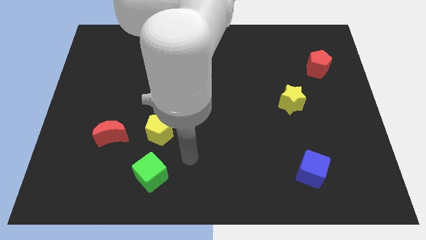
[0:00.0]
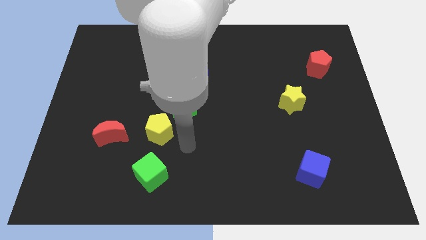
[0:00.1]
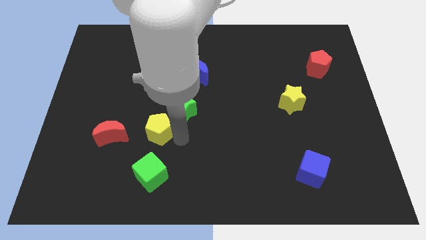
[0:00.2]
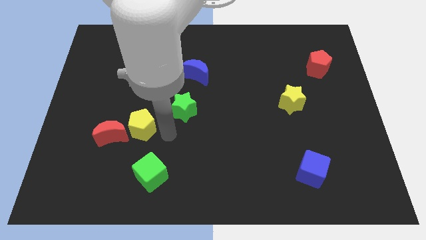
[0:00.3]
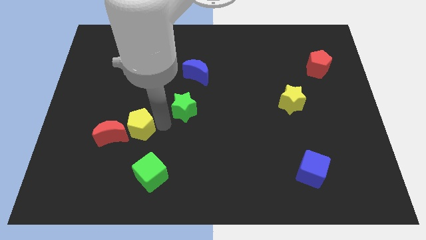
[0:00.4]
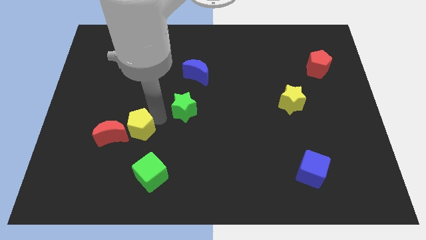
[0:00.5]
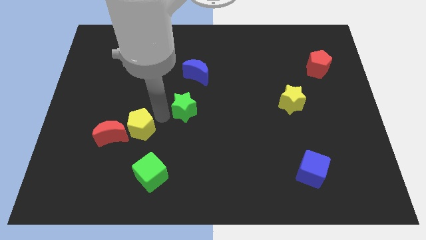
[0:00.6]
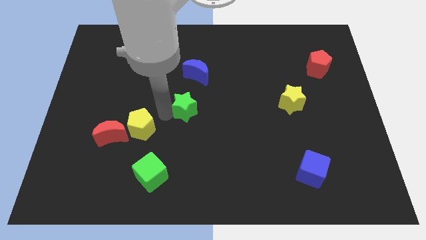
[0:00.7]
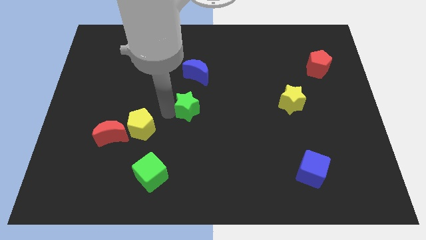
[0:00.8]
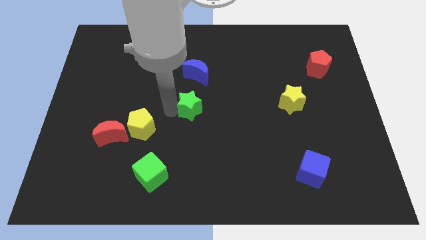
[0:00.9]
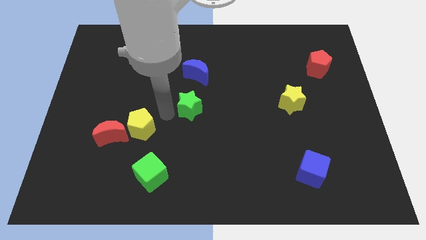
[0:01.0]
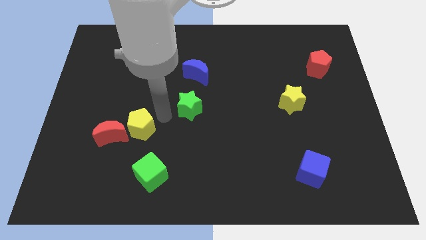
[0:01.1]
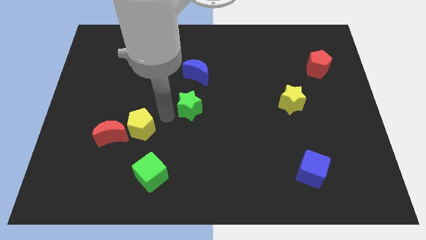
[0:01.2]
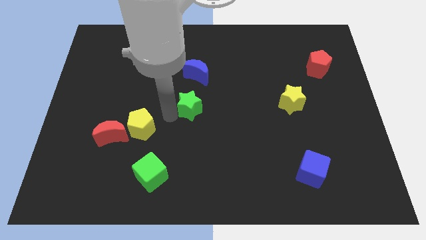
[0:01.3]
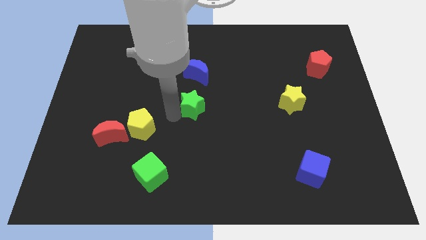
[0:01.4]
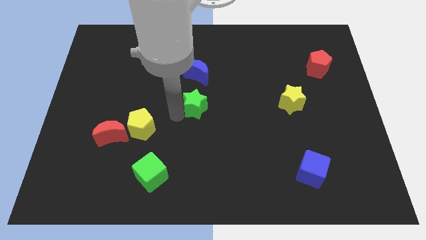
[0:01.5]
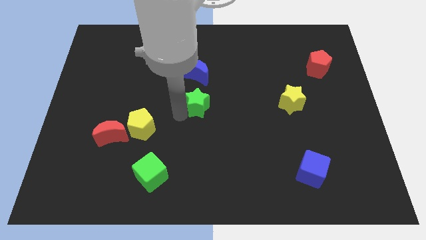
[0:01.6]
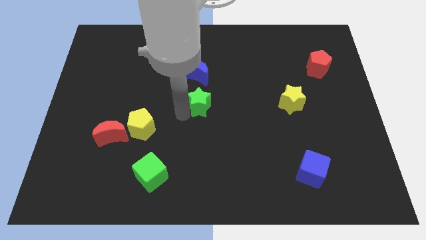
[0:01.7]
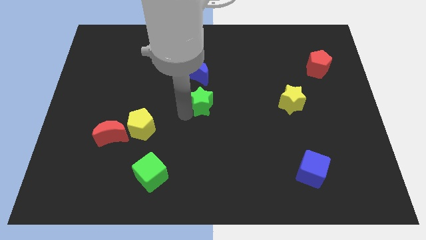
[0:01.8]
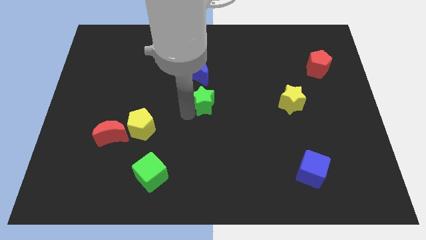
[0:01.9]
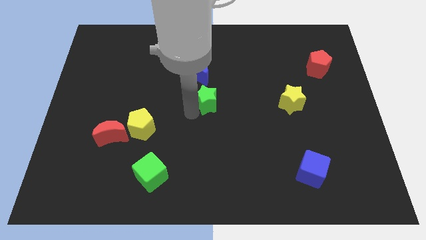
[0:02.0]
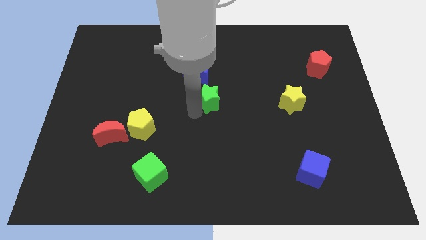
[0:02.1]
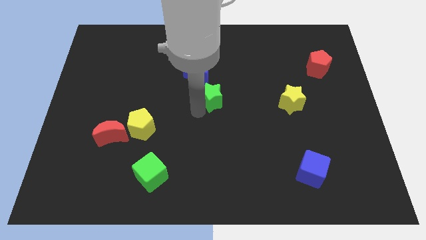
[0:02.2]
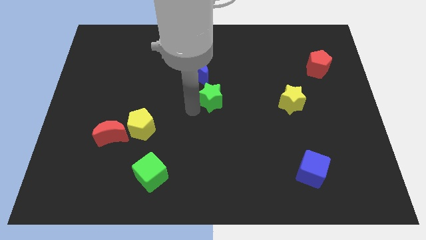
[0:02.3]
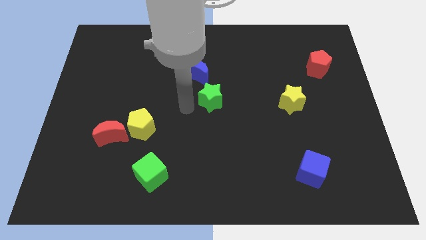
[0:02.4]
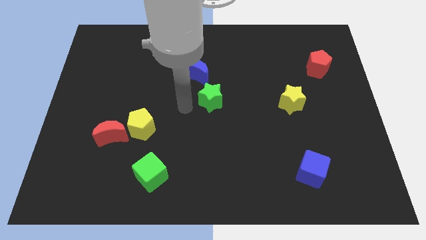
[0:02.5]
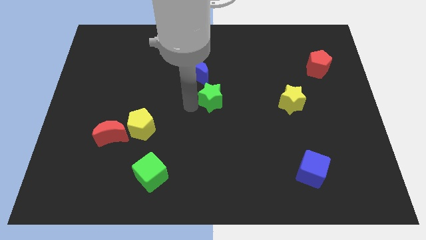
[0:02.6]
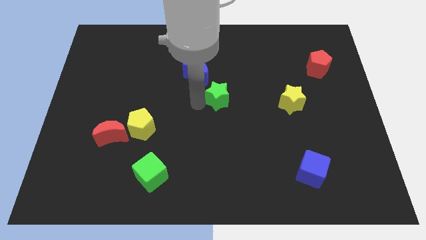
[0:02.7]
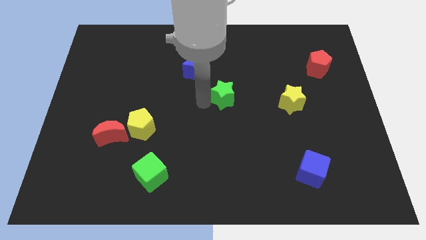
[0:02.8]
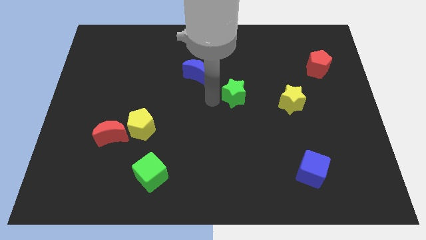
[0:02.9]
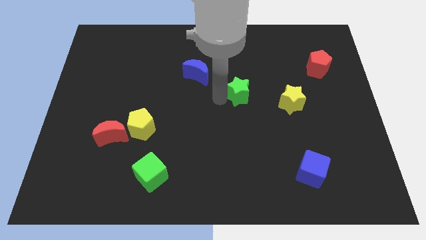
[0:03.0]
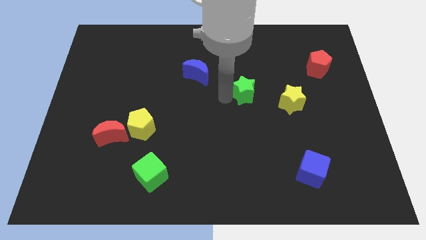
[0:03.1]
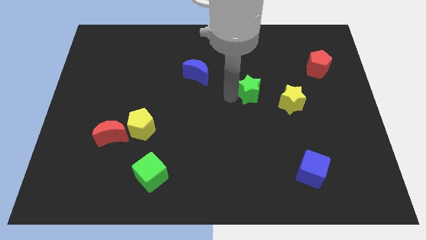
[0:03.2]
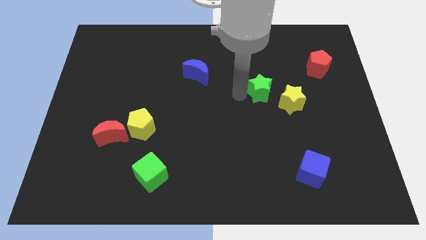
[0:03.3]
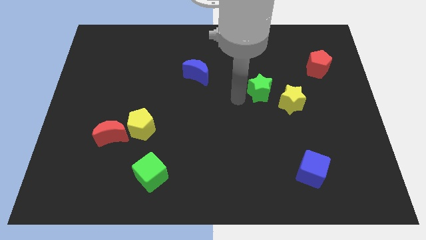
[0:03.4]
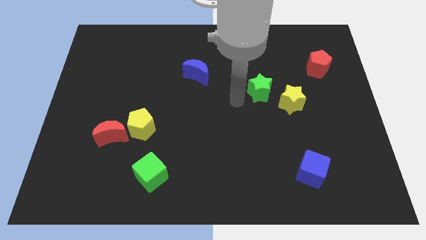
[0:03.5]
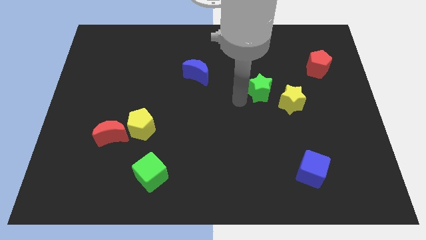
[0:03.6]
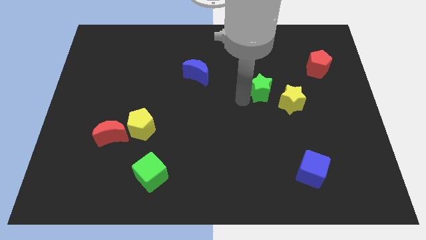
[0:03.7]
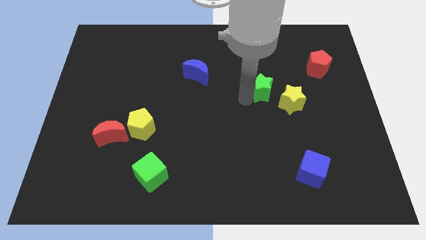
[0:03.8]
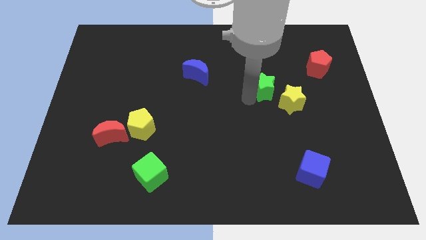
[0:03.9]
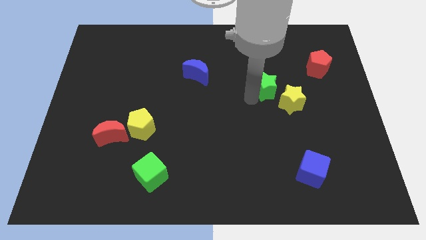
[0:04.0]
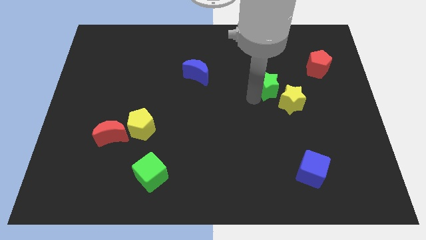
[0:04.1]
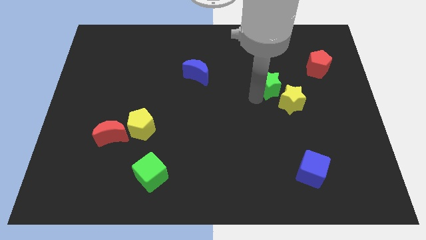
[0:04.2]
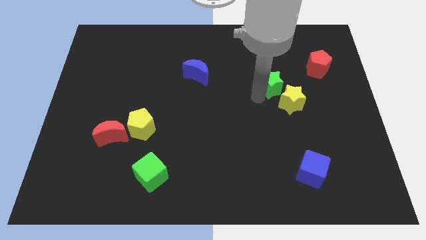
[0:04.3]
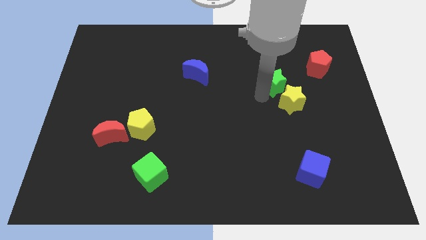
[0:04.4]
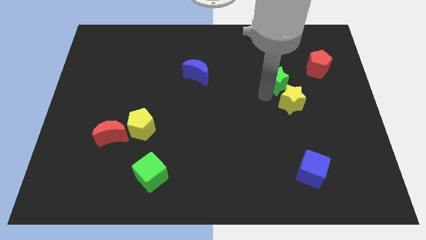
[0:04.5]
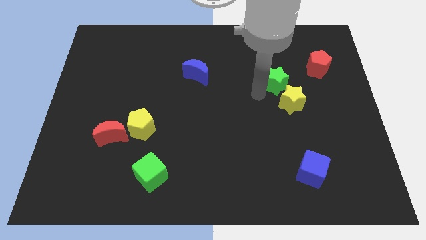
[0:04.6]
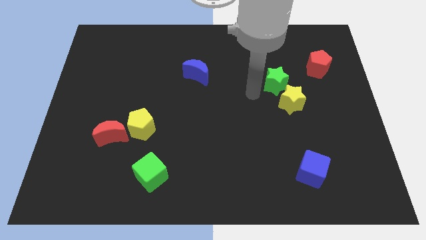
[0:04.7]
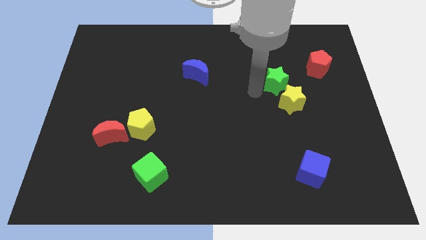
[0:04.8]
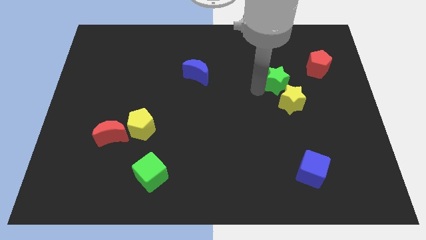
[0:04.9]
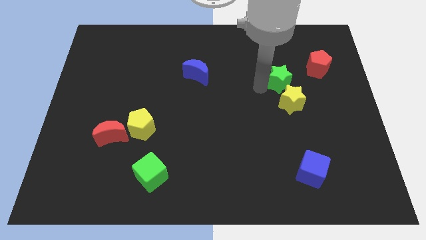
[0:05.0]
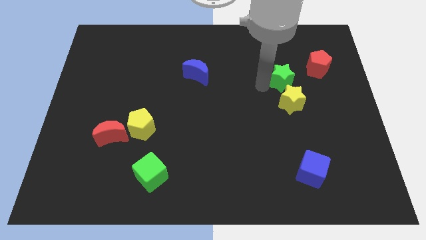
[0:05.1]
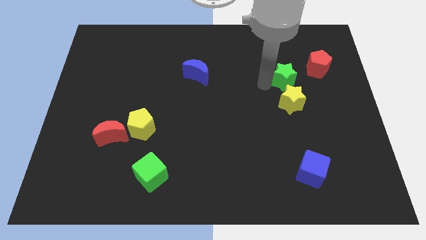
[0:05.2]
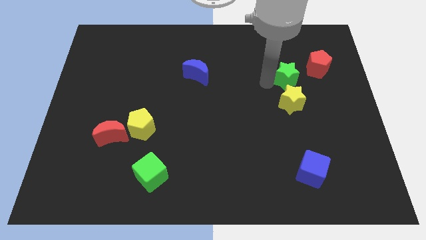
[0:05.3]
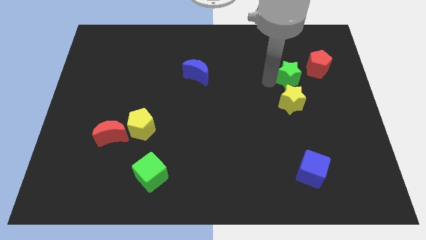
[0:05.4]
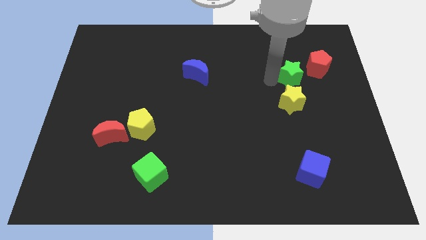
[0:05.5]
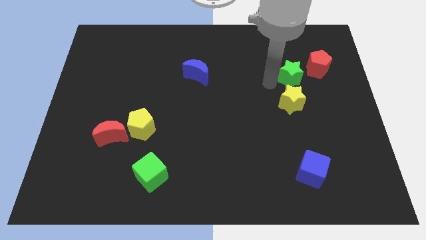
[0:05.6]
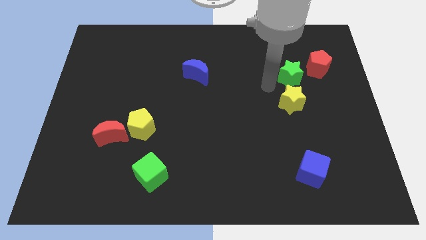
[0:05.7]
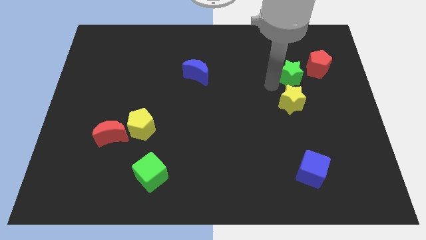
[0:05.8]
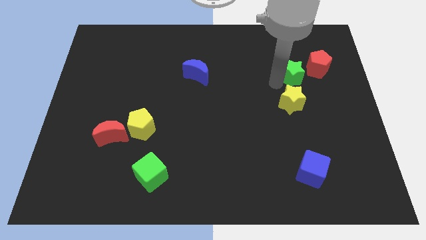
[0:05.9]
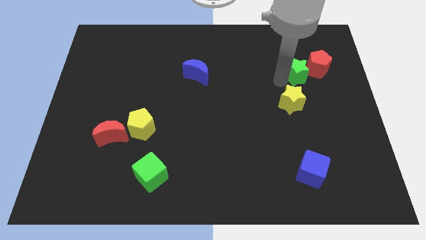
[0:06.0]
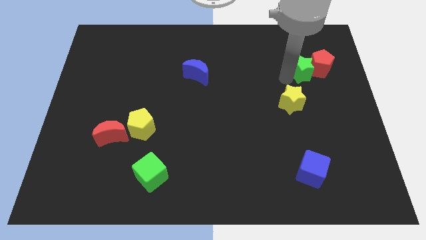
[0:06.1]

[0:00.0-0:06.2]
slide the green star to the red pentagon

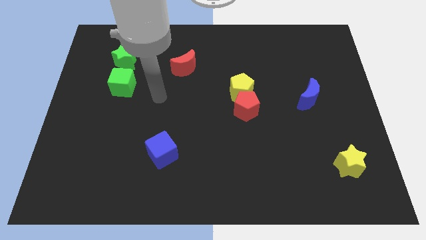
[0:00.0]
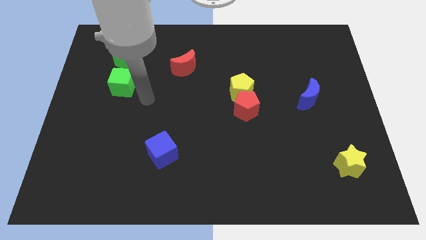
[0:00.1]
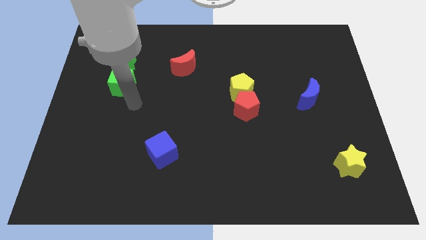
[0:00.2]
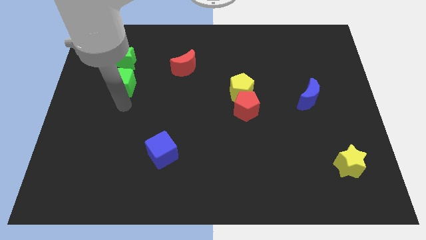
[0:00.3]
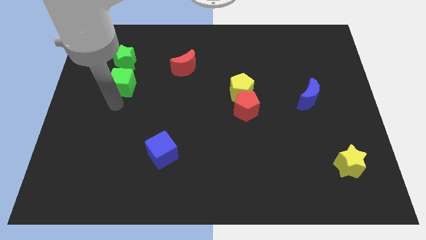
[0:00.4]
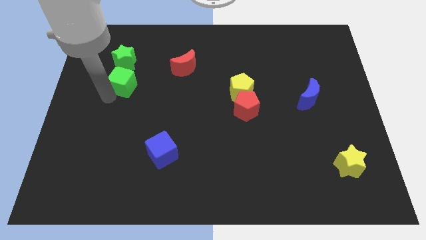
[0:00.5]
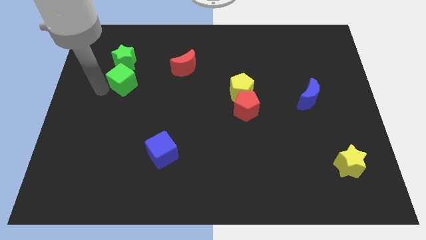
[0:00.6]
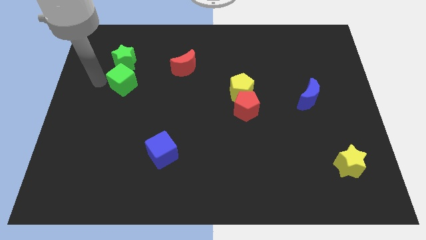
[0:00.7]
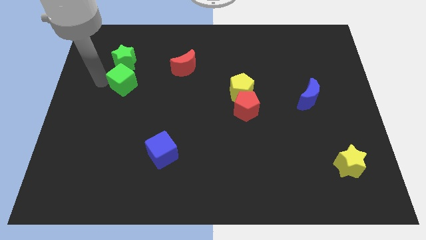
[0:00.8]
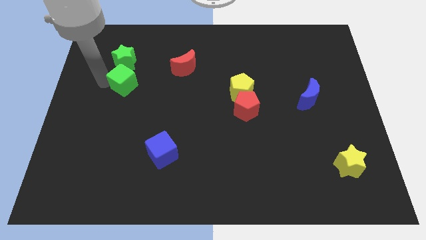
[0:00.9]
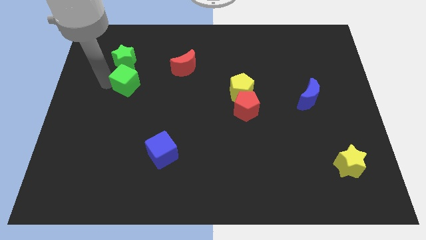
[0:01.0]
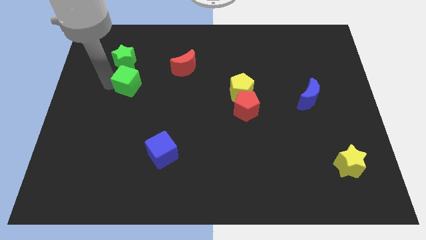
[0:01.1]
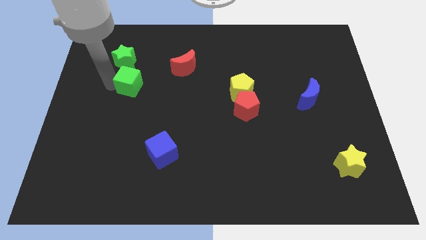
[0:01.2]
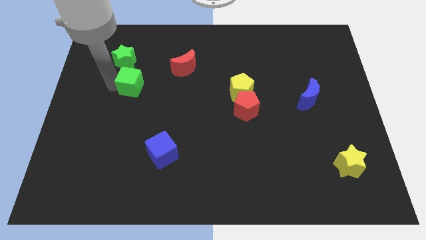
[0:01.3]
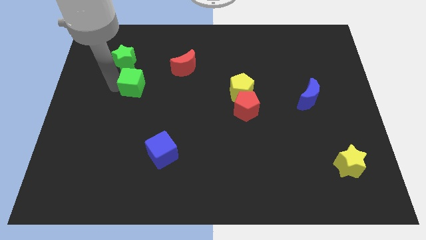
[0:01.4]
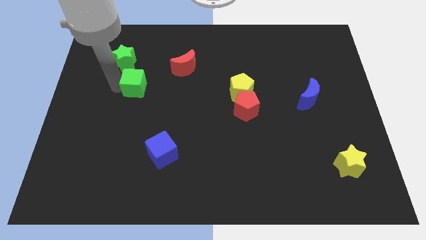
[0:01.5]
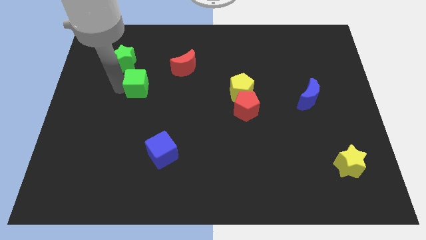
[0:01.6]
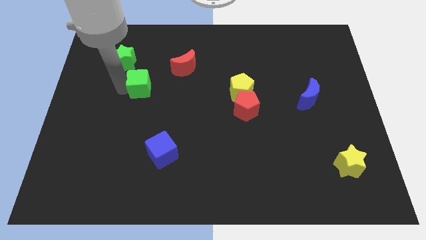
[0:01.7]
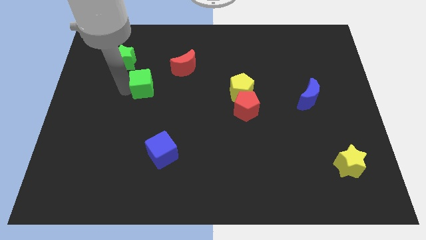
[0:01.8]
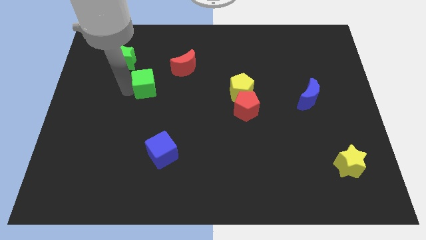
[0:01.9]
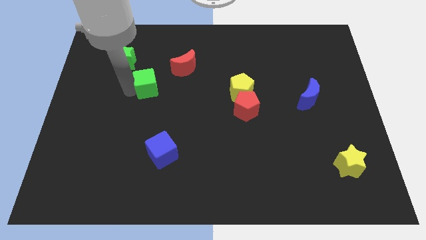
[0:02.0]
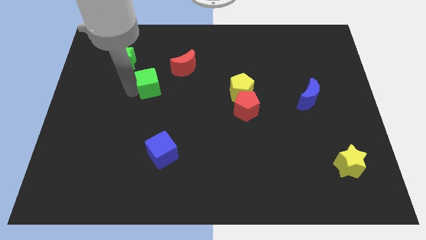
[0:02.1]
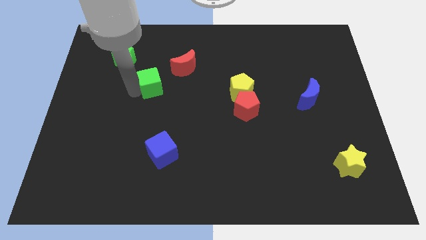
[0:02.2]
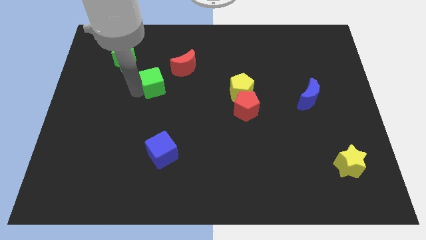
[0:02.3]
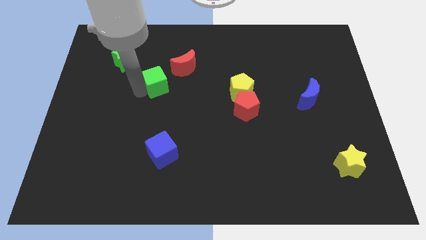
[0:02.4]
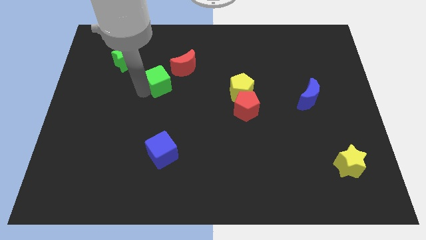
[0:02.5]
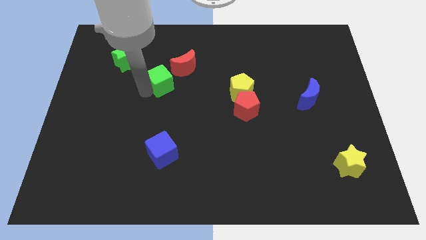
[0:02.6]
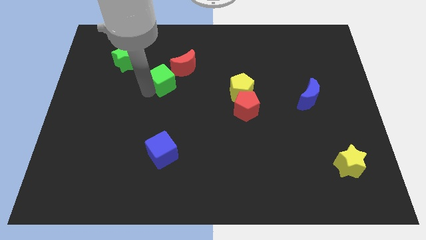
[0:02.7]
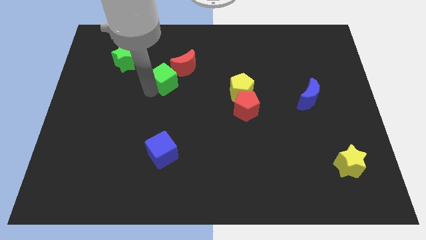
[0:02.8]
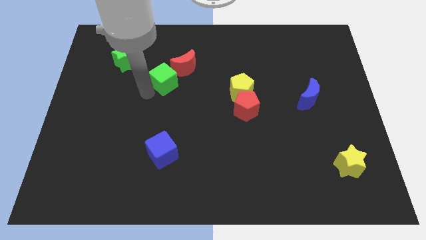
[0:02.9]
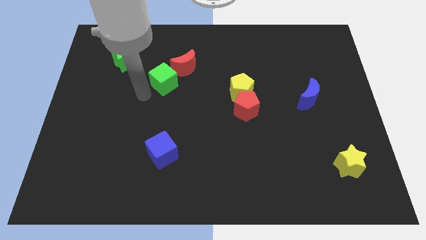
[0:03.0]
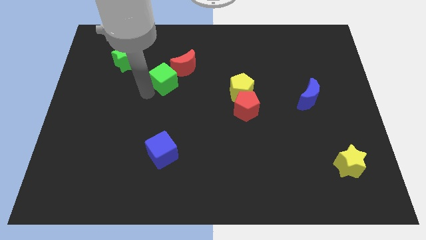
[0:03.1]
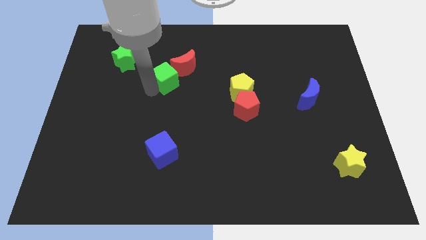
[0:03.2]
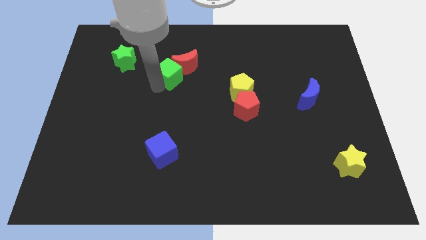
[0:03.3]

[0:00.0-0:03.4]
move the green cube close to the red moon
